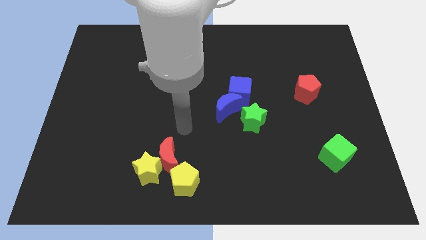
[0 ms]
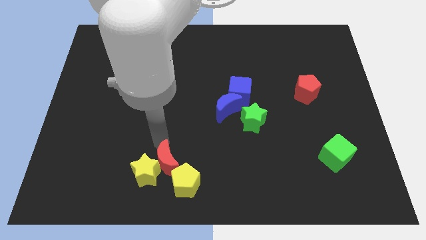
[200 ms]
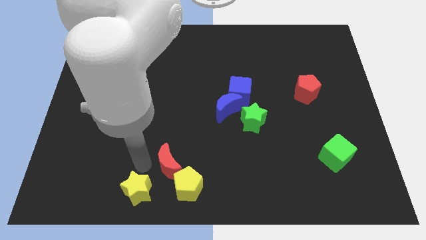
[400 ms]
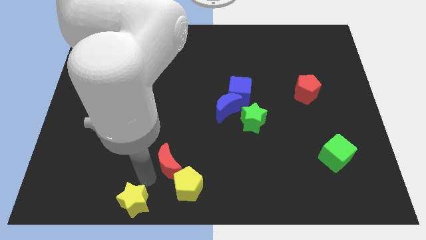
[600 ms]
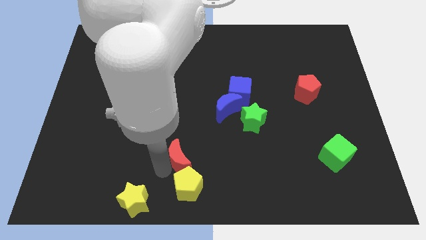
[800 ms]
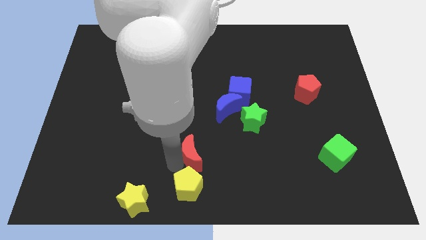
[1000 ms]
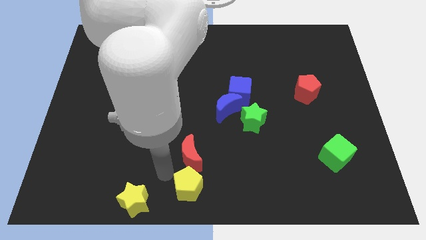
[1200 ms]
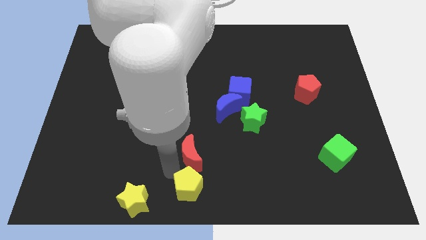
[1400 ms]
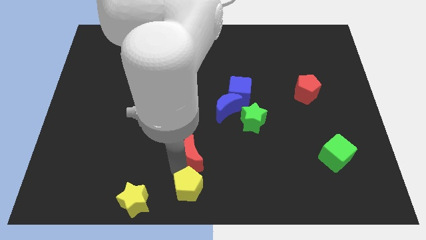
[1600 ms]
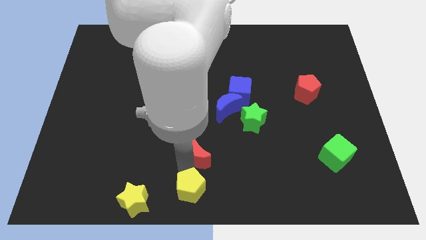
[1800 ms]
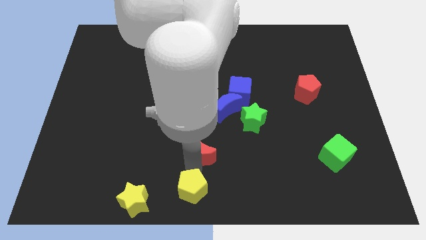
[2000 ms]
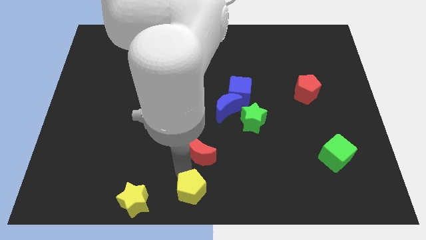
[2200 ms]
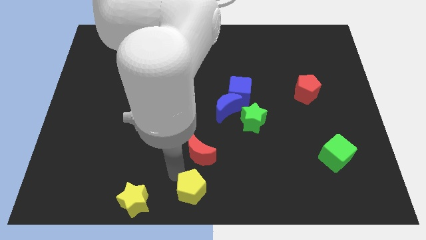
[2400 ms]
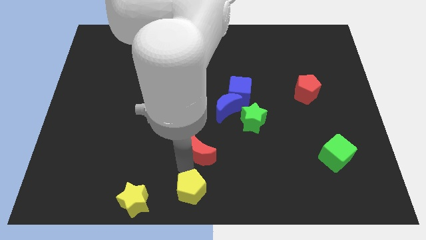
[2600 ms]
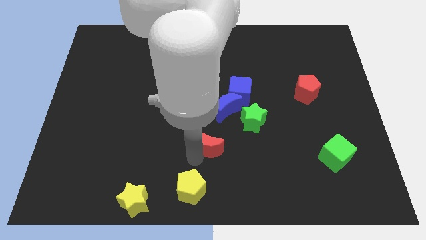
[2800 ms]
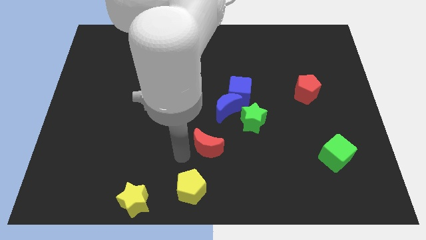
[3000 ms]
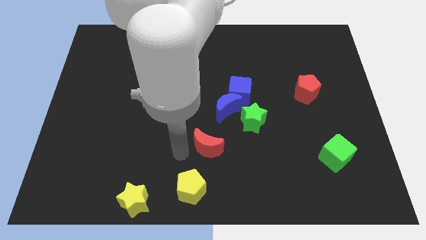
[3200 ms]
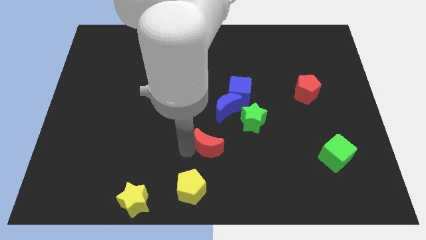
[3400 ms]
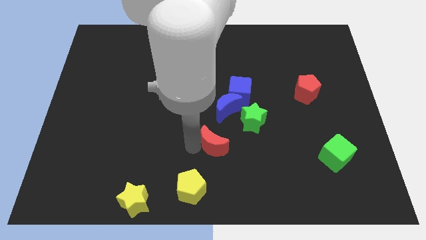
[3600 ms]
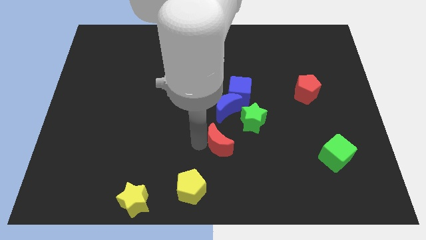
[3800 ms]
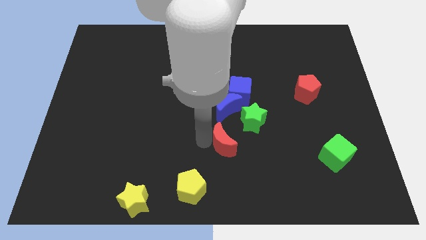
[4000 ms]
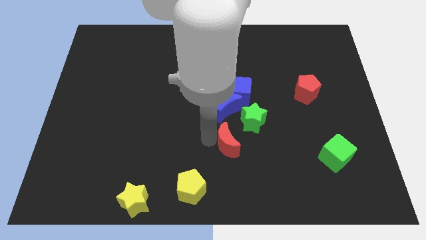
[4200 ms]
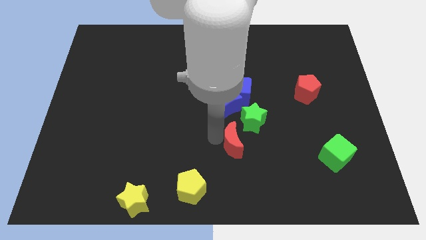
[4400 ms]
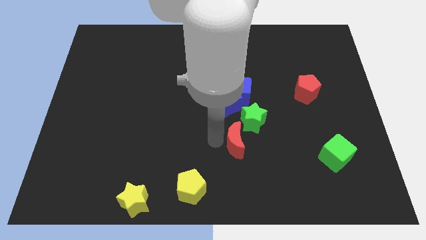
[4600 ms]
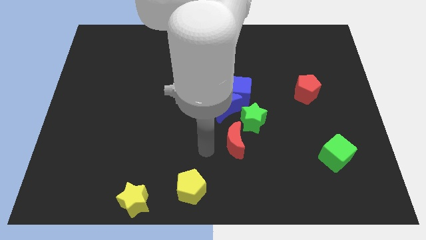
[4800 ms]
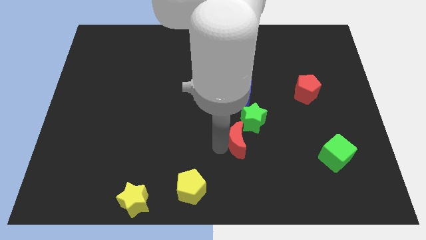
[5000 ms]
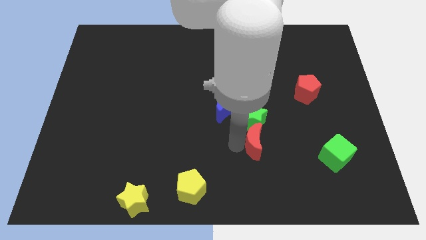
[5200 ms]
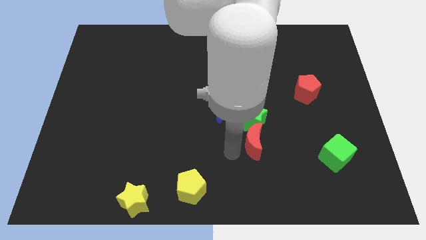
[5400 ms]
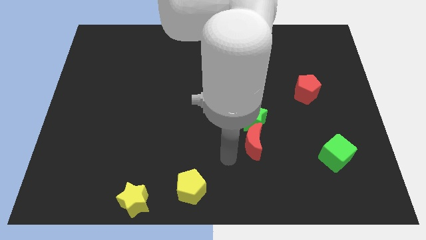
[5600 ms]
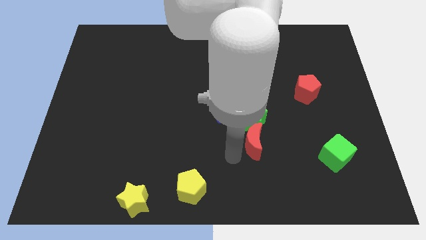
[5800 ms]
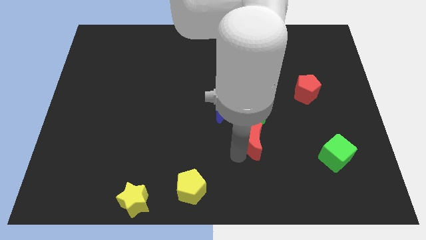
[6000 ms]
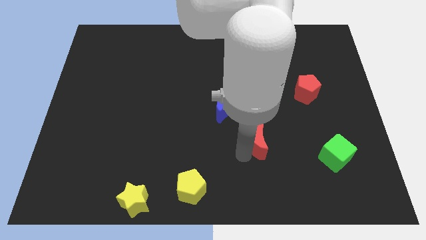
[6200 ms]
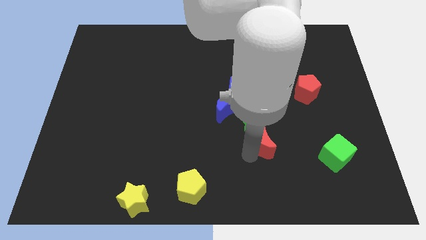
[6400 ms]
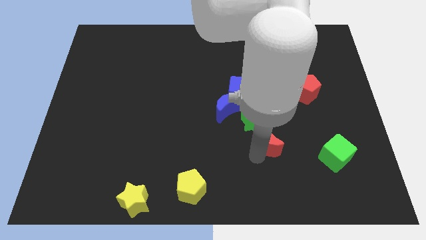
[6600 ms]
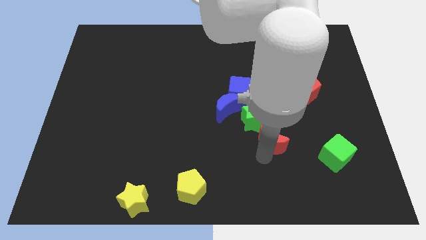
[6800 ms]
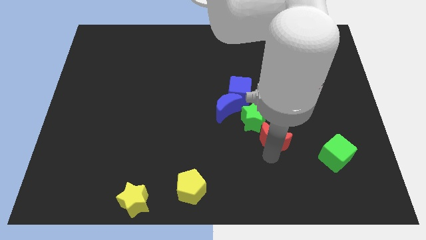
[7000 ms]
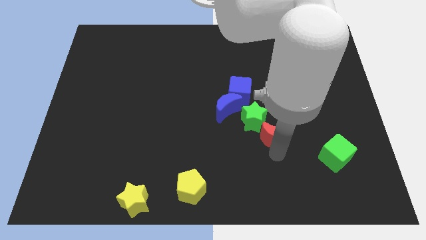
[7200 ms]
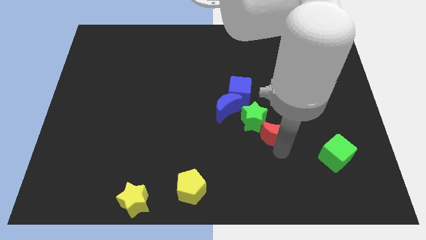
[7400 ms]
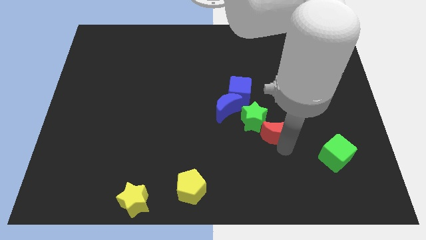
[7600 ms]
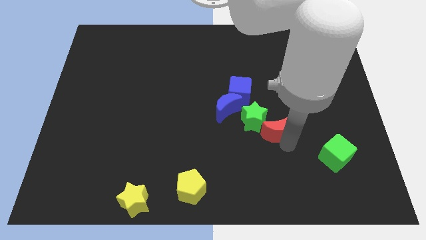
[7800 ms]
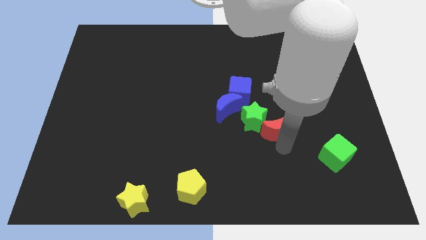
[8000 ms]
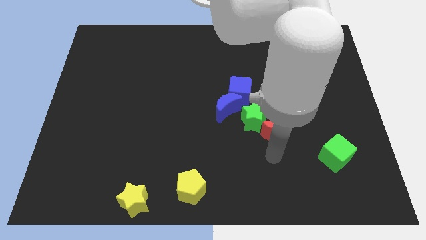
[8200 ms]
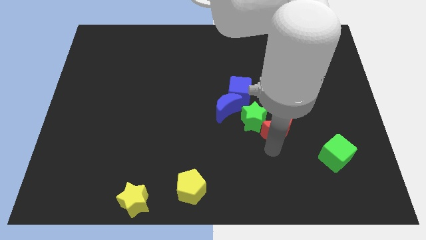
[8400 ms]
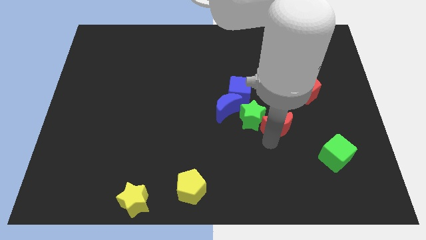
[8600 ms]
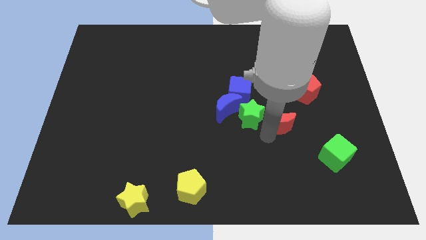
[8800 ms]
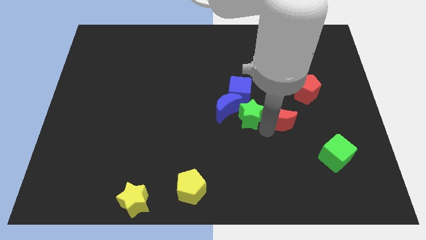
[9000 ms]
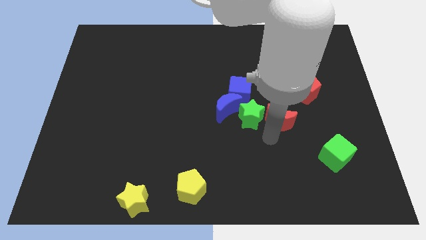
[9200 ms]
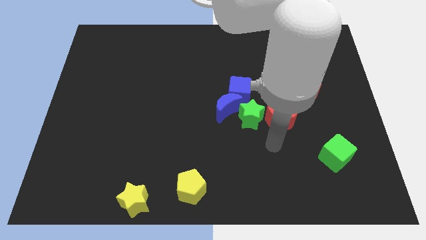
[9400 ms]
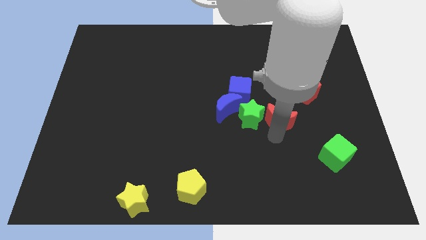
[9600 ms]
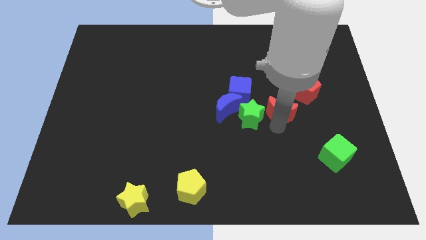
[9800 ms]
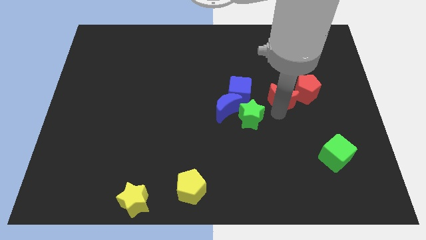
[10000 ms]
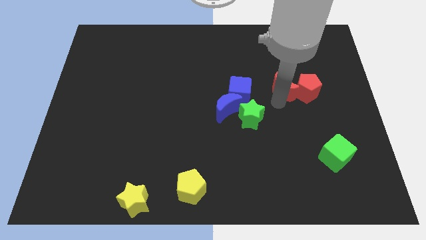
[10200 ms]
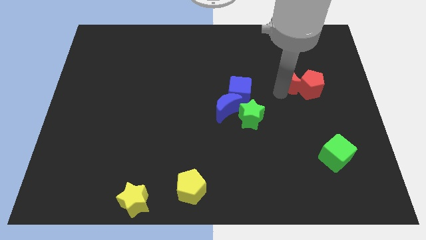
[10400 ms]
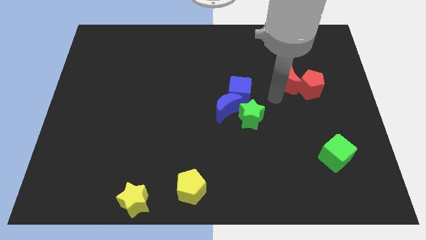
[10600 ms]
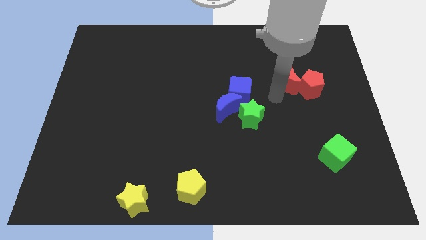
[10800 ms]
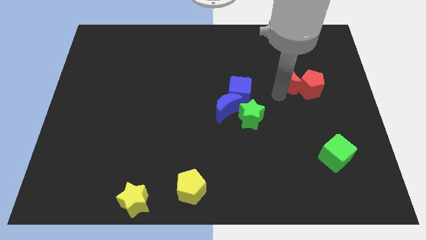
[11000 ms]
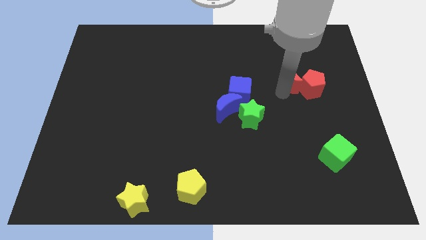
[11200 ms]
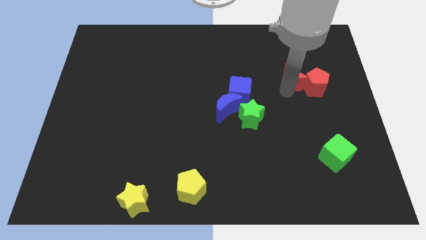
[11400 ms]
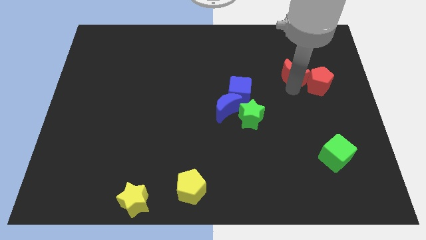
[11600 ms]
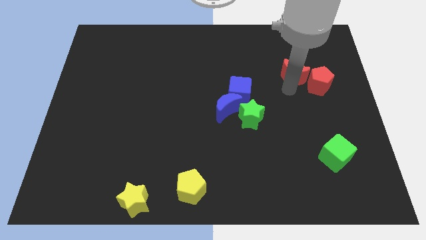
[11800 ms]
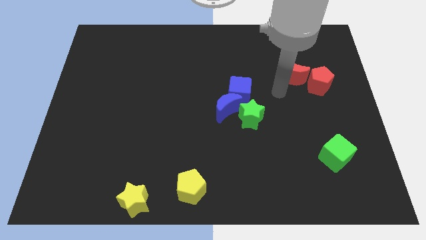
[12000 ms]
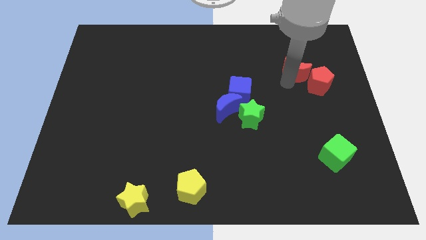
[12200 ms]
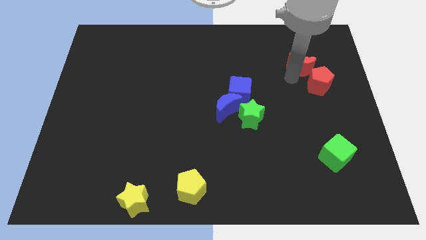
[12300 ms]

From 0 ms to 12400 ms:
slide the red moon to the top of the red pentagon

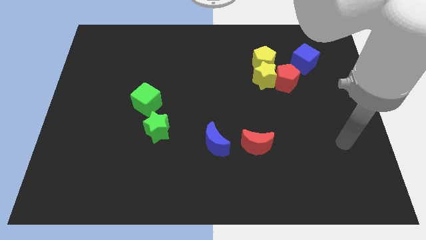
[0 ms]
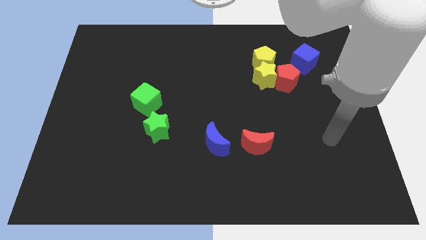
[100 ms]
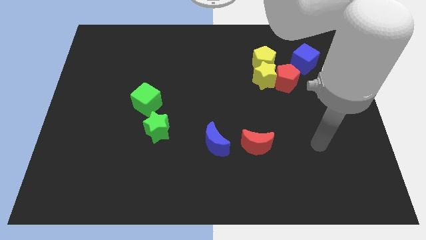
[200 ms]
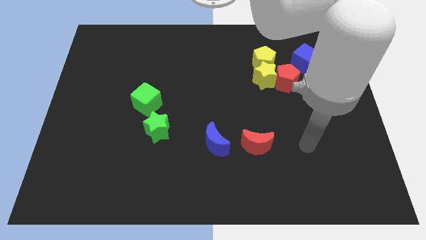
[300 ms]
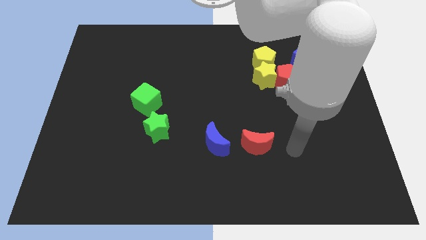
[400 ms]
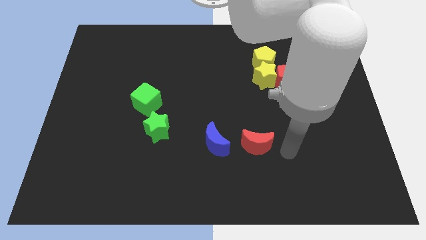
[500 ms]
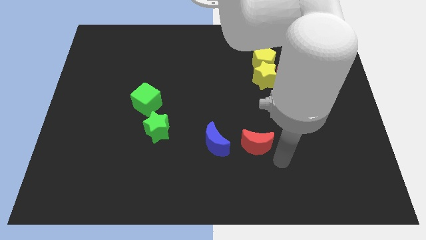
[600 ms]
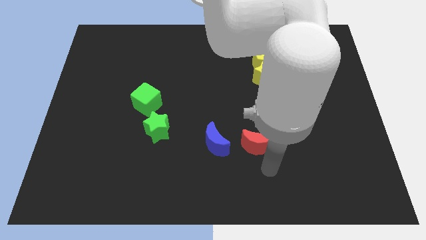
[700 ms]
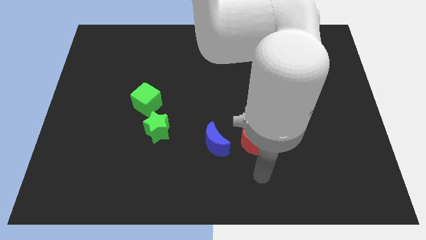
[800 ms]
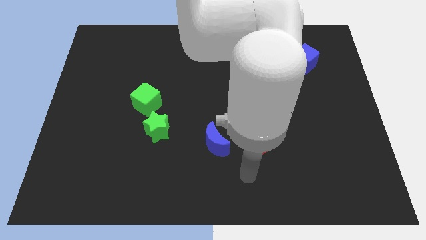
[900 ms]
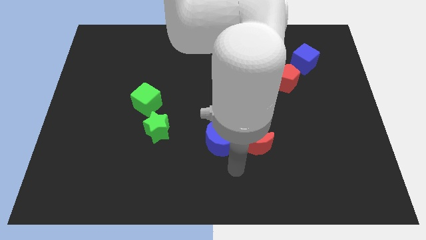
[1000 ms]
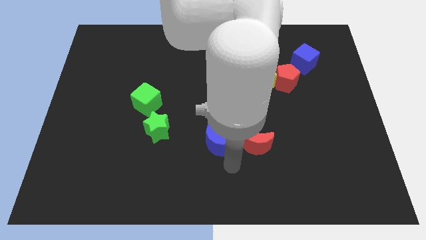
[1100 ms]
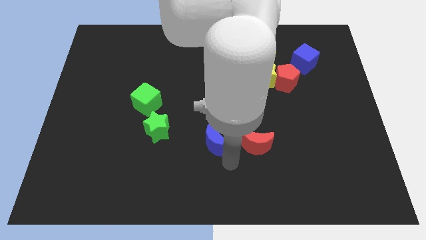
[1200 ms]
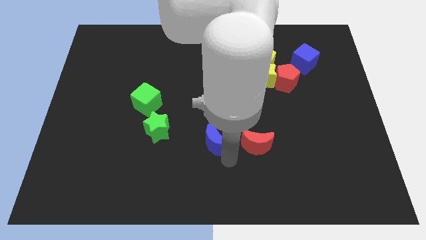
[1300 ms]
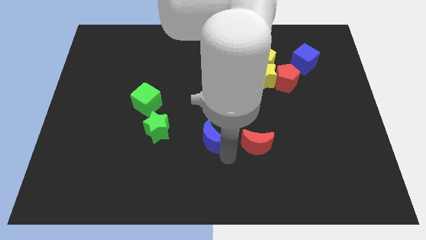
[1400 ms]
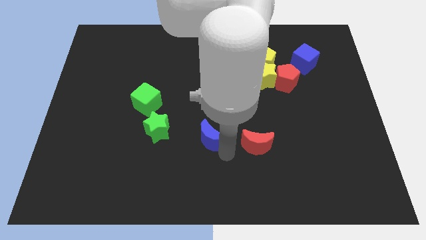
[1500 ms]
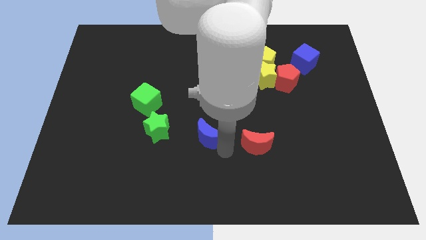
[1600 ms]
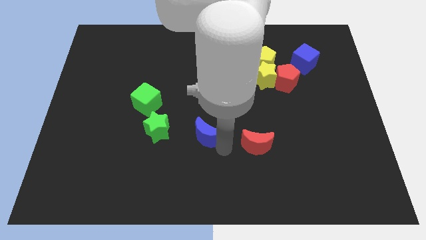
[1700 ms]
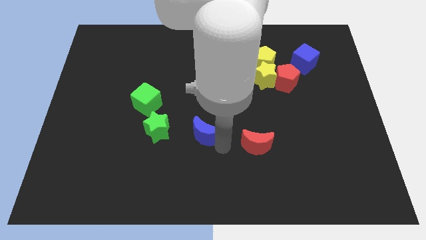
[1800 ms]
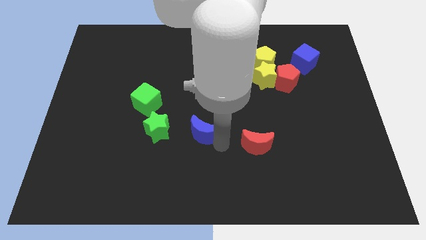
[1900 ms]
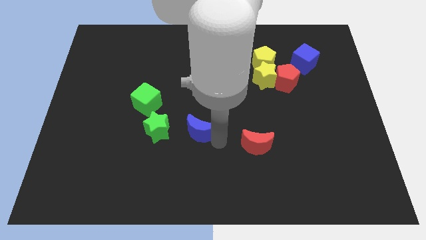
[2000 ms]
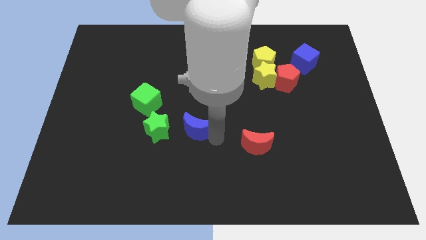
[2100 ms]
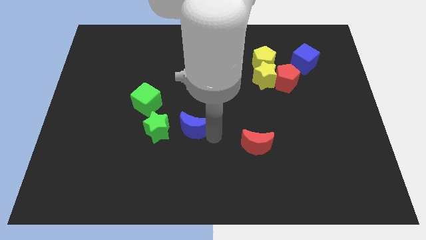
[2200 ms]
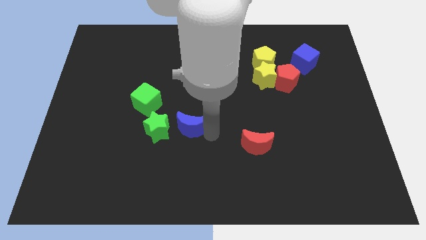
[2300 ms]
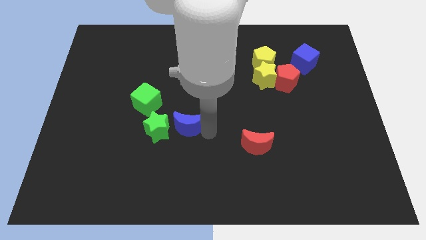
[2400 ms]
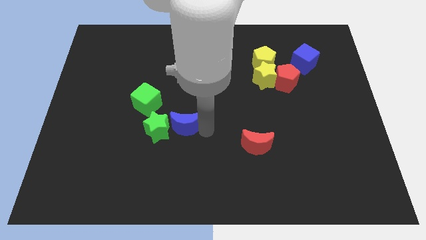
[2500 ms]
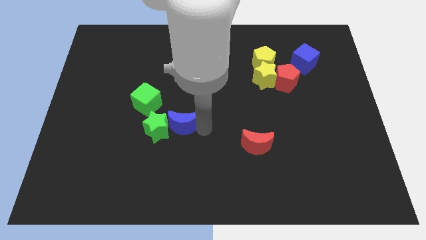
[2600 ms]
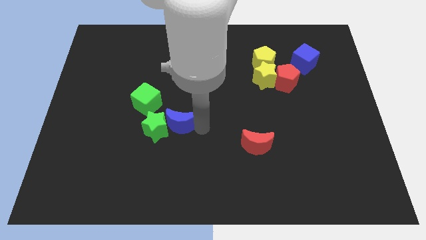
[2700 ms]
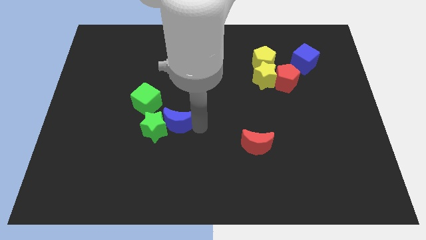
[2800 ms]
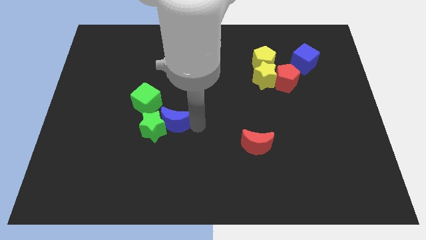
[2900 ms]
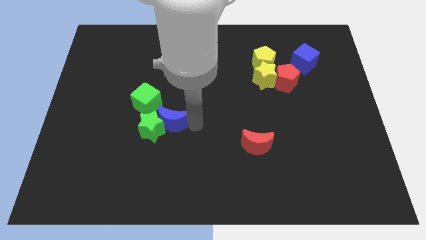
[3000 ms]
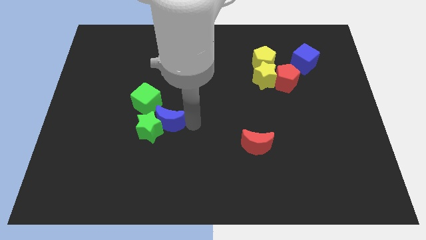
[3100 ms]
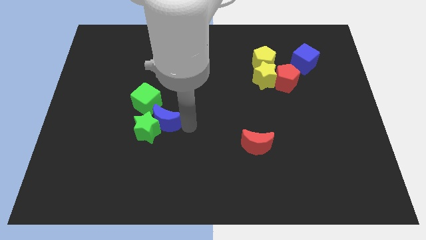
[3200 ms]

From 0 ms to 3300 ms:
slide the blue moon to the top of the green star
